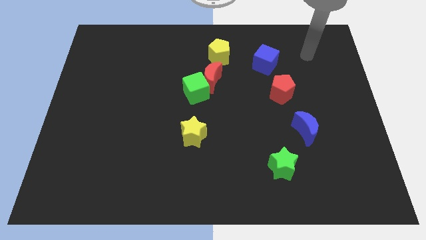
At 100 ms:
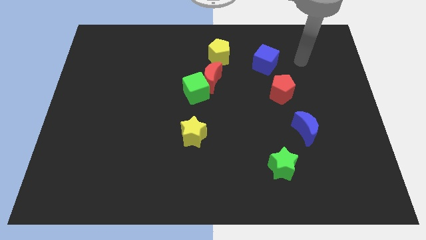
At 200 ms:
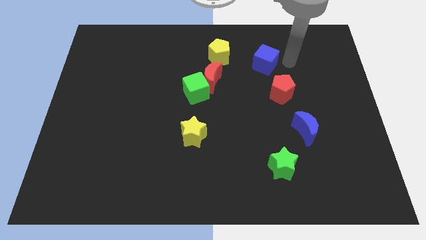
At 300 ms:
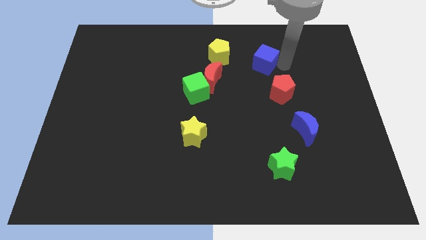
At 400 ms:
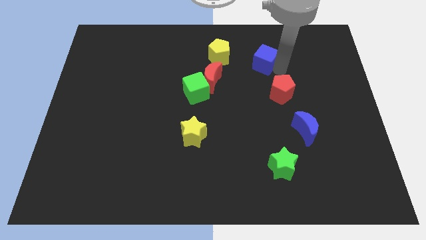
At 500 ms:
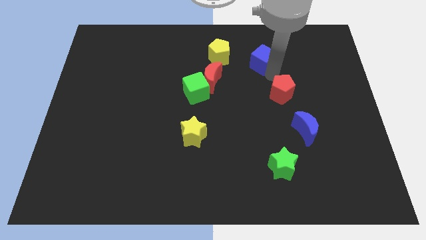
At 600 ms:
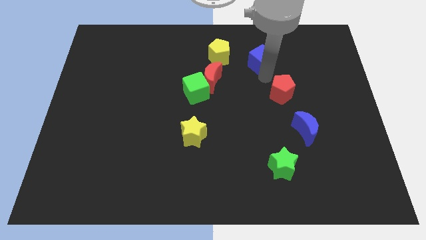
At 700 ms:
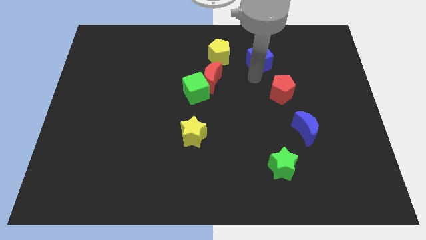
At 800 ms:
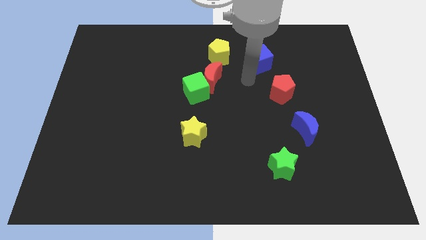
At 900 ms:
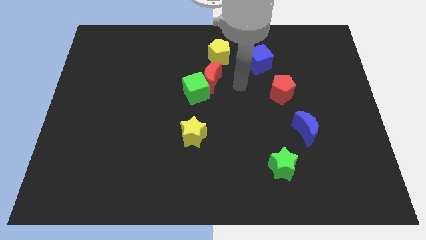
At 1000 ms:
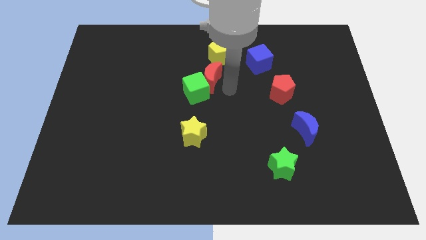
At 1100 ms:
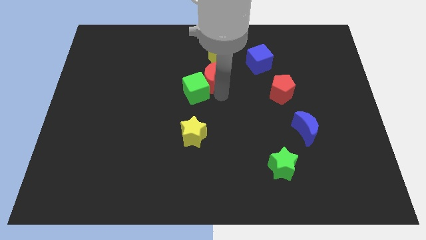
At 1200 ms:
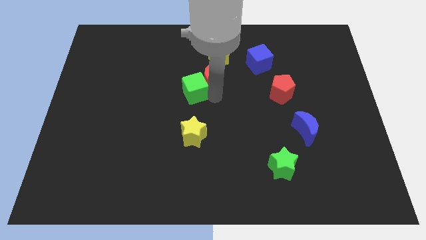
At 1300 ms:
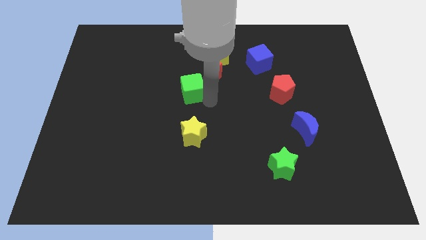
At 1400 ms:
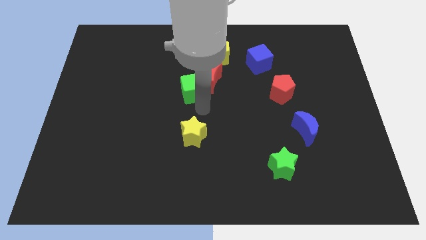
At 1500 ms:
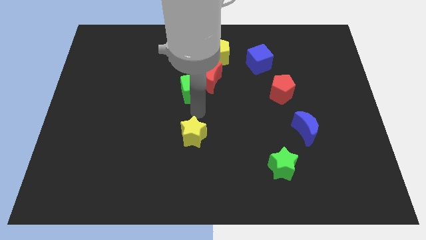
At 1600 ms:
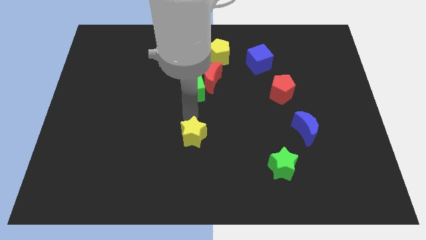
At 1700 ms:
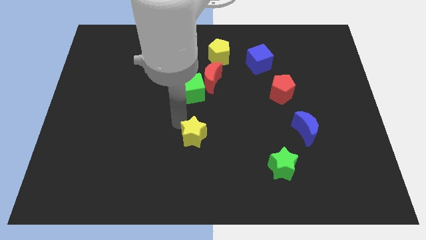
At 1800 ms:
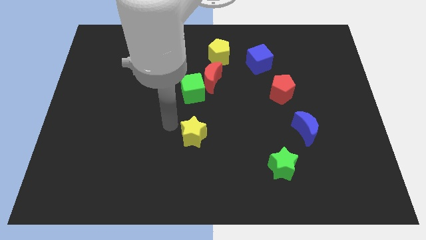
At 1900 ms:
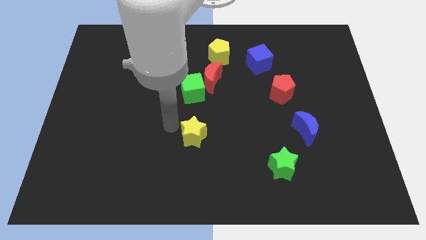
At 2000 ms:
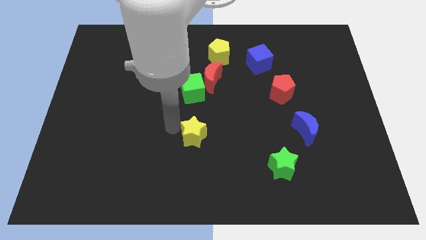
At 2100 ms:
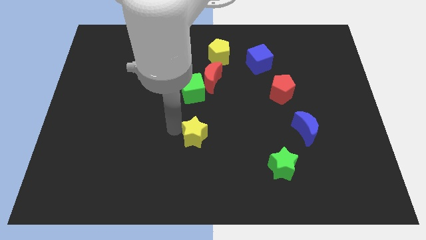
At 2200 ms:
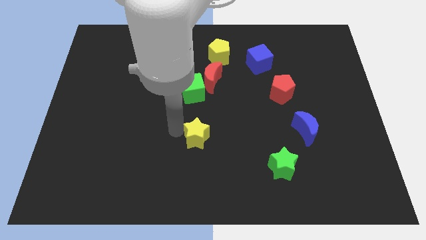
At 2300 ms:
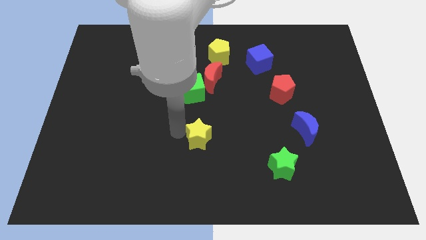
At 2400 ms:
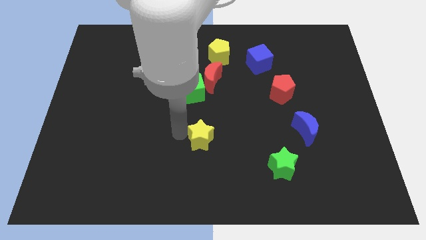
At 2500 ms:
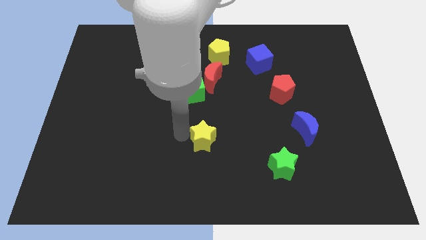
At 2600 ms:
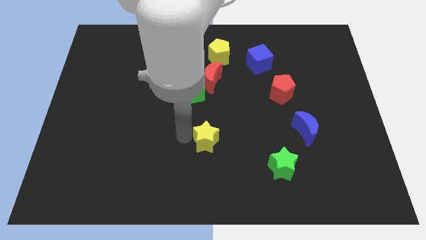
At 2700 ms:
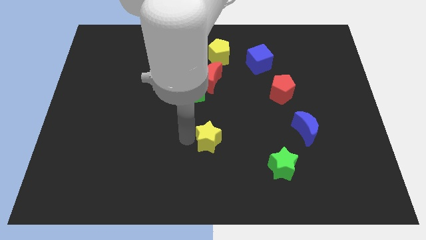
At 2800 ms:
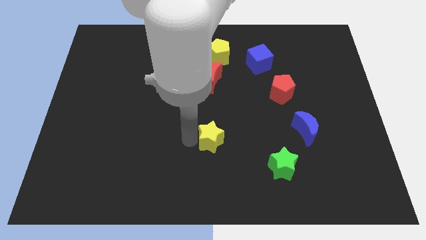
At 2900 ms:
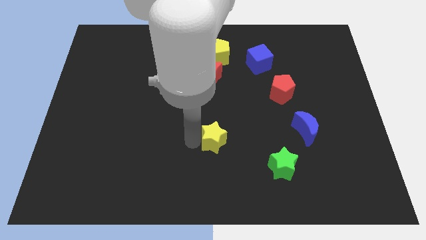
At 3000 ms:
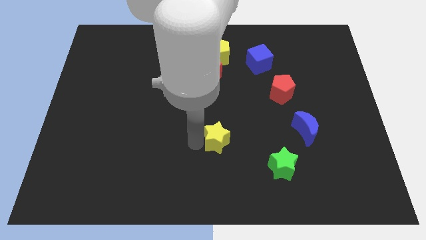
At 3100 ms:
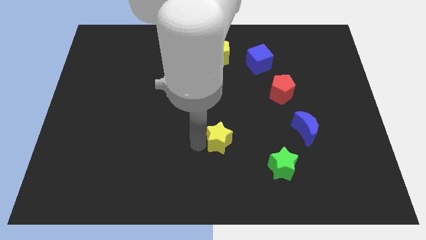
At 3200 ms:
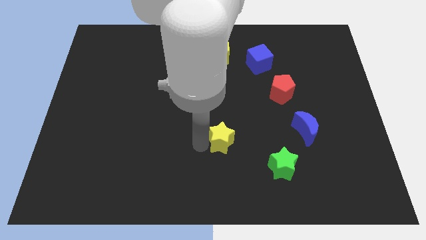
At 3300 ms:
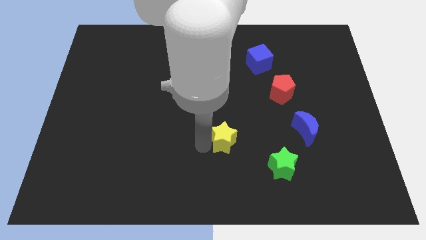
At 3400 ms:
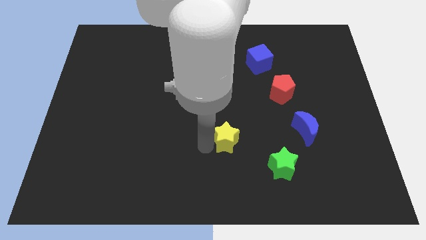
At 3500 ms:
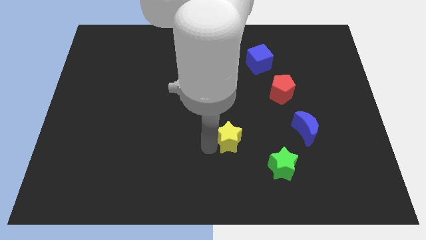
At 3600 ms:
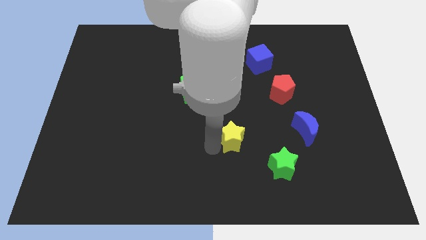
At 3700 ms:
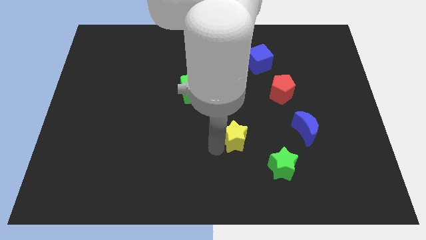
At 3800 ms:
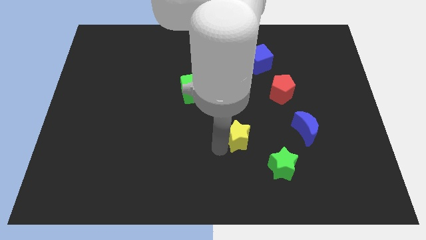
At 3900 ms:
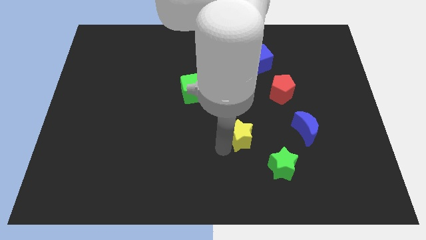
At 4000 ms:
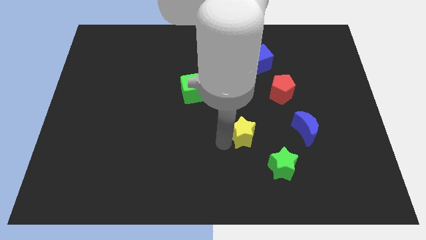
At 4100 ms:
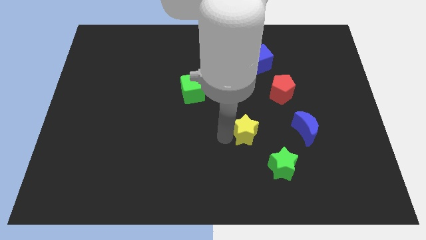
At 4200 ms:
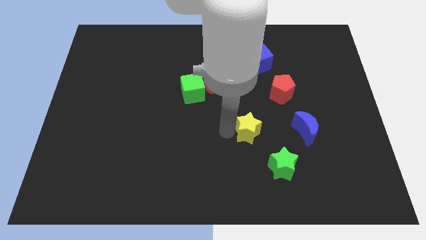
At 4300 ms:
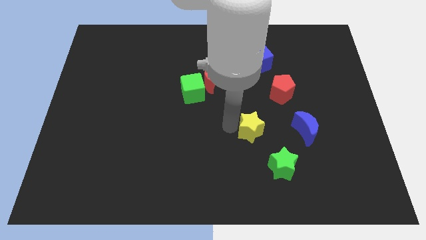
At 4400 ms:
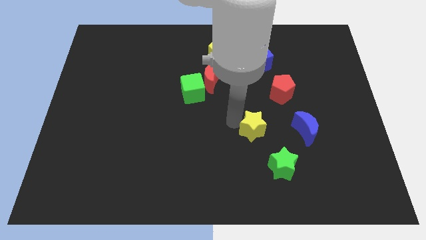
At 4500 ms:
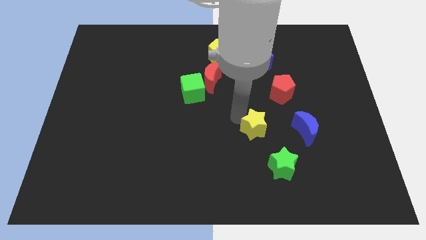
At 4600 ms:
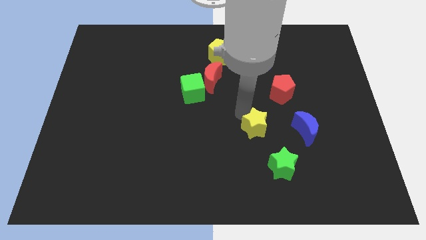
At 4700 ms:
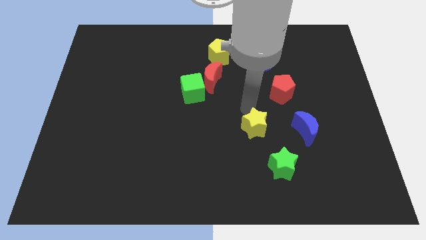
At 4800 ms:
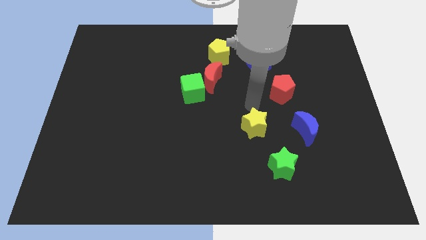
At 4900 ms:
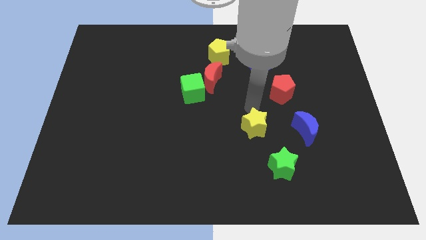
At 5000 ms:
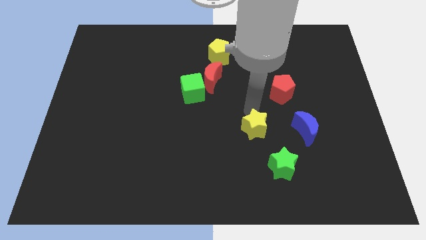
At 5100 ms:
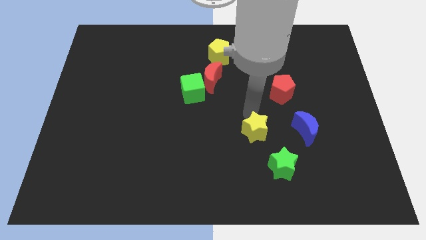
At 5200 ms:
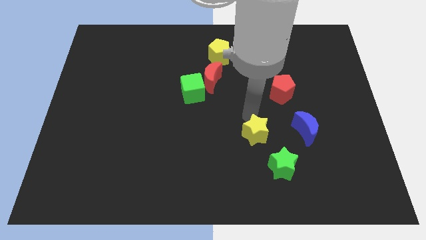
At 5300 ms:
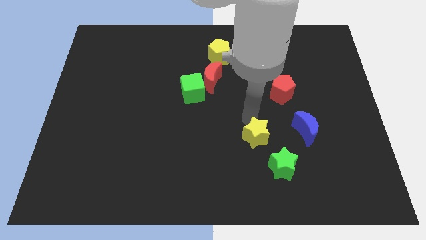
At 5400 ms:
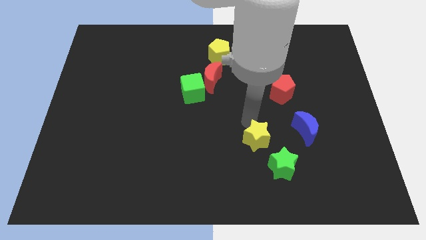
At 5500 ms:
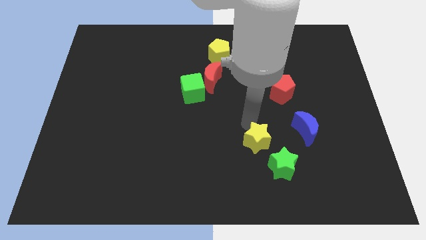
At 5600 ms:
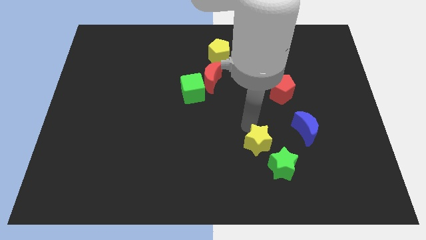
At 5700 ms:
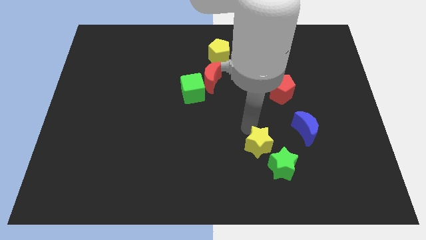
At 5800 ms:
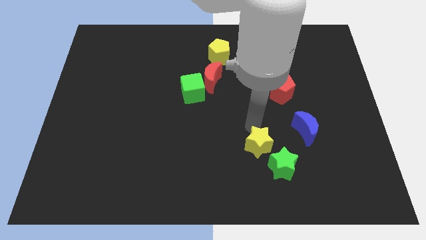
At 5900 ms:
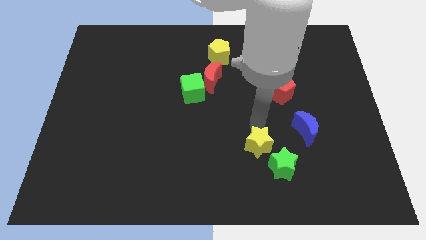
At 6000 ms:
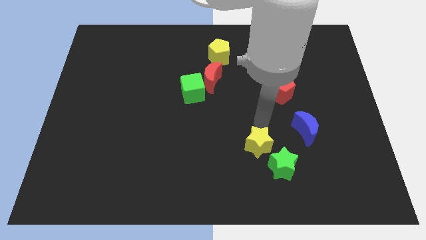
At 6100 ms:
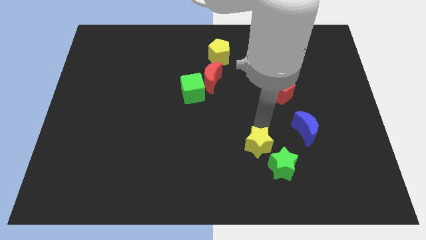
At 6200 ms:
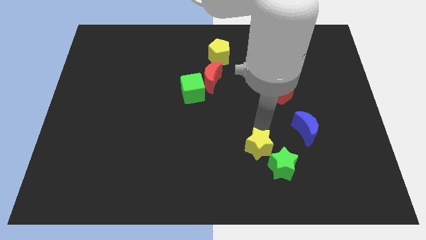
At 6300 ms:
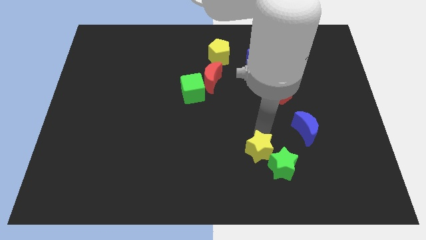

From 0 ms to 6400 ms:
slide the yellow star to the green star
